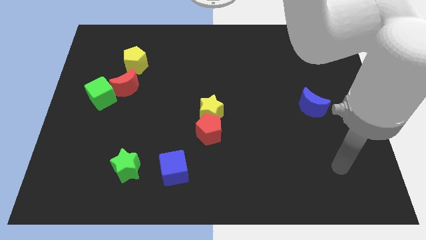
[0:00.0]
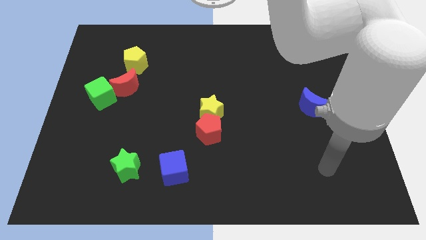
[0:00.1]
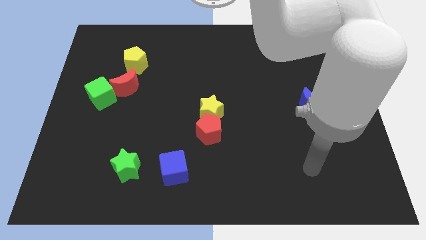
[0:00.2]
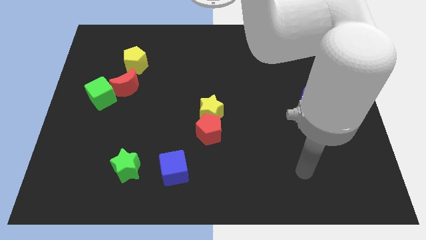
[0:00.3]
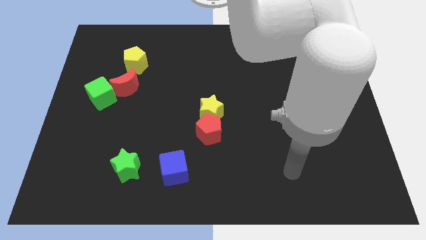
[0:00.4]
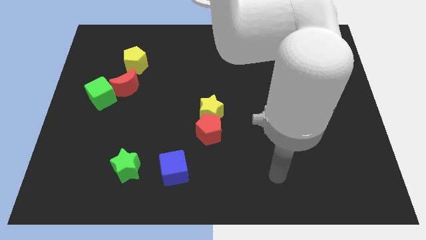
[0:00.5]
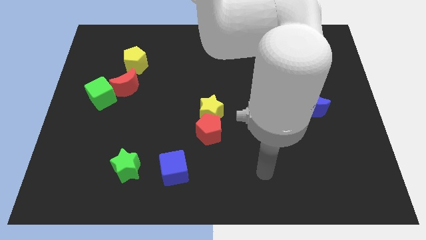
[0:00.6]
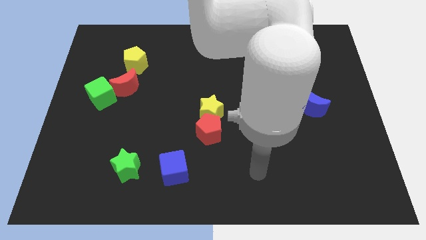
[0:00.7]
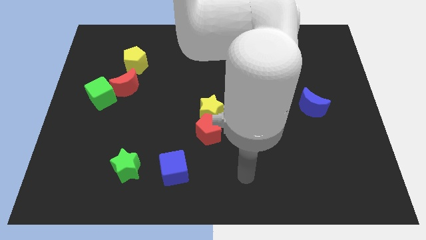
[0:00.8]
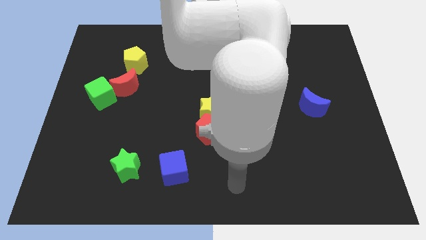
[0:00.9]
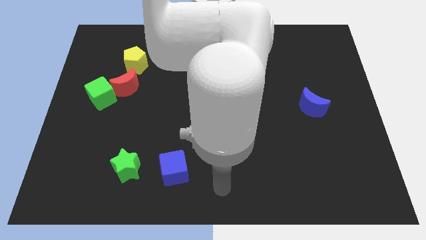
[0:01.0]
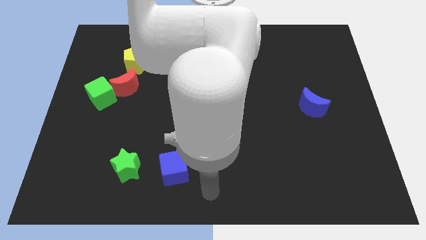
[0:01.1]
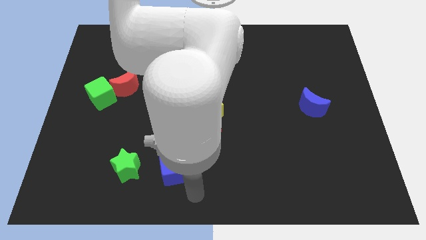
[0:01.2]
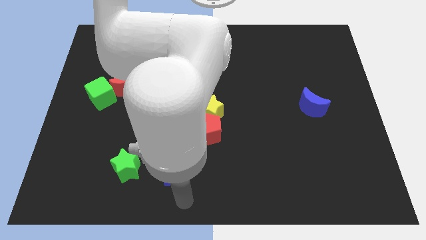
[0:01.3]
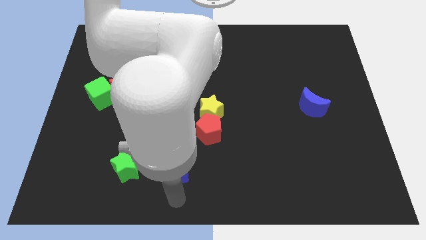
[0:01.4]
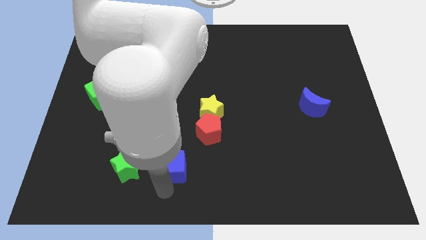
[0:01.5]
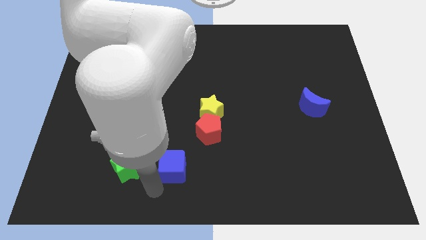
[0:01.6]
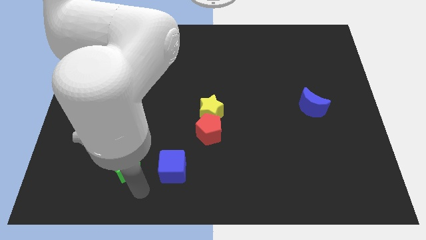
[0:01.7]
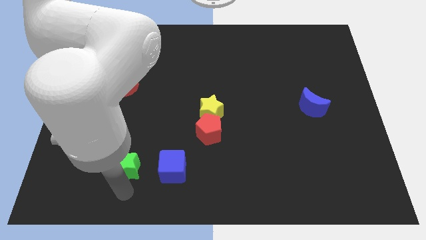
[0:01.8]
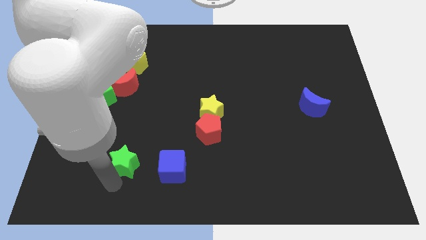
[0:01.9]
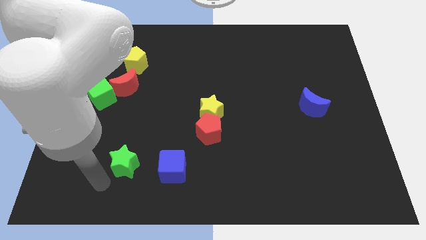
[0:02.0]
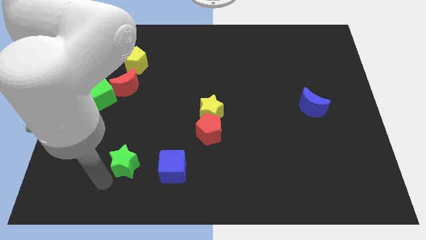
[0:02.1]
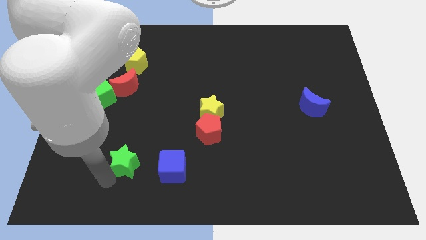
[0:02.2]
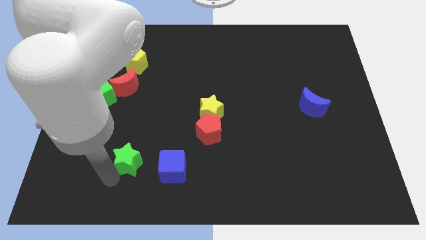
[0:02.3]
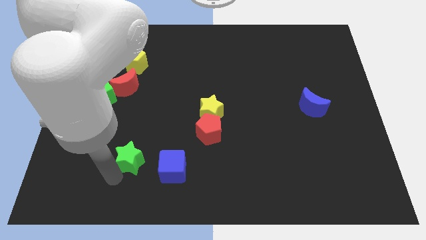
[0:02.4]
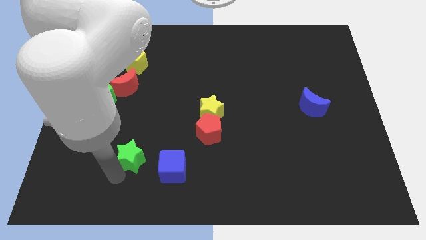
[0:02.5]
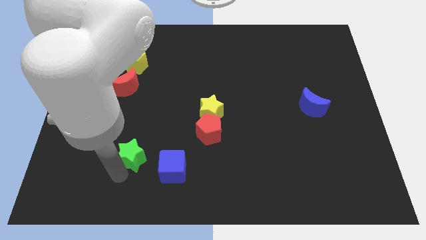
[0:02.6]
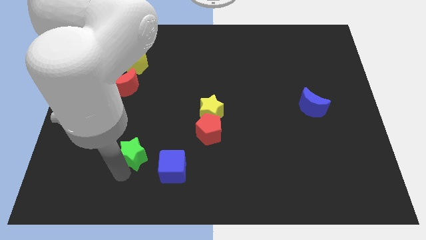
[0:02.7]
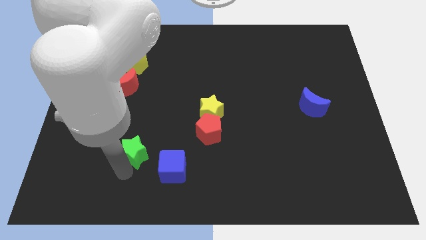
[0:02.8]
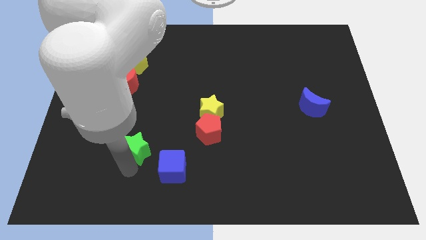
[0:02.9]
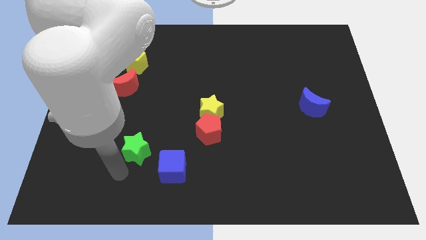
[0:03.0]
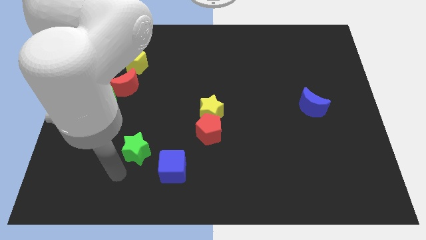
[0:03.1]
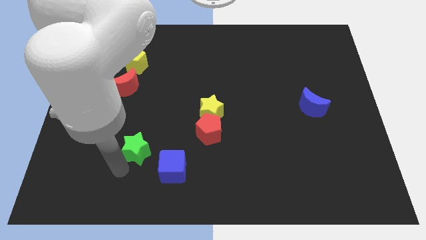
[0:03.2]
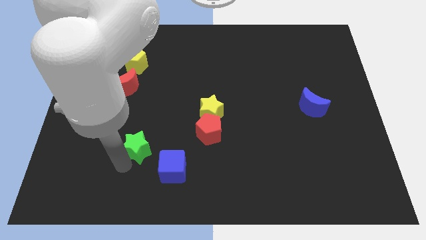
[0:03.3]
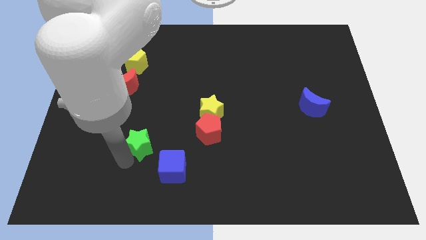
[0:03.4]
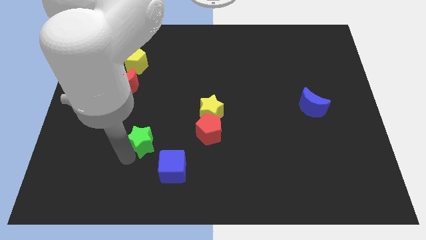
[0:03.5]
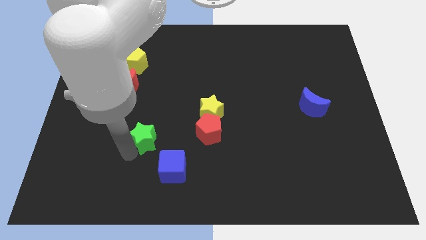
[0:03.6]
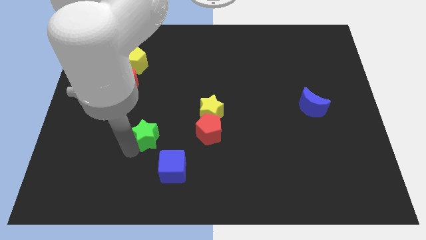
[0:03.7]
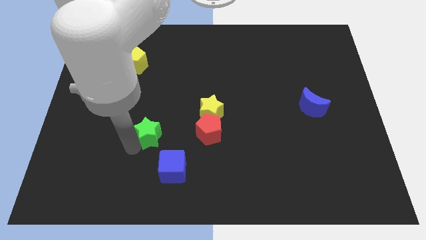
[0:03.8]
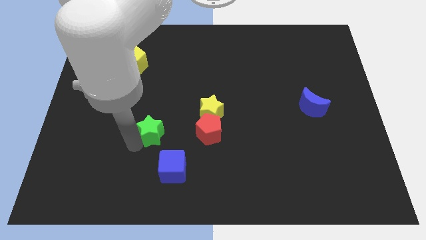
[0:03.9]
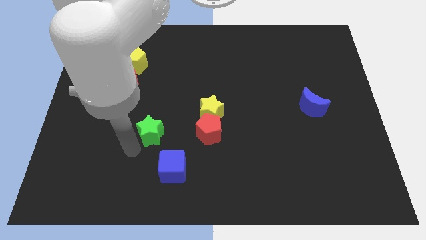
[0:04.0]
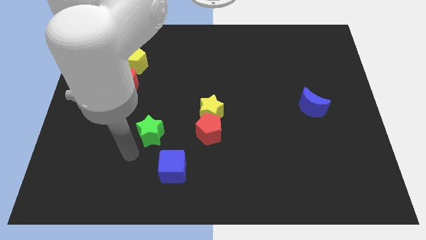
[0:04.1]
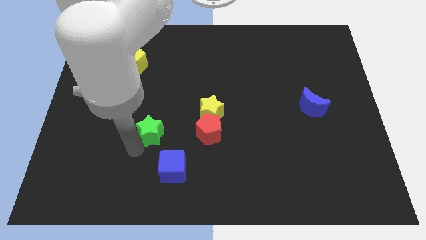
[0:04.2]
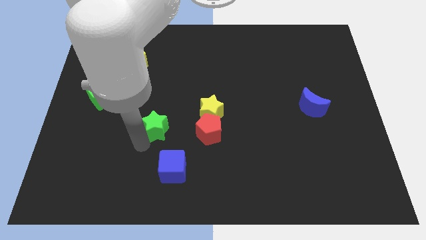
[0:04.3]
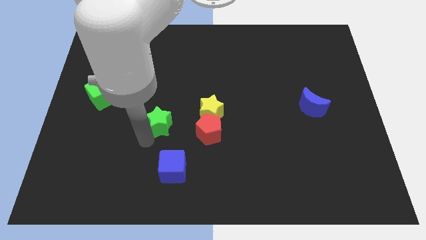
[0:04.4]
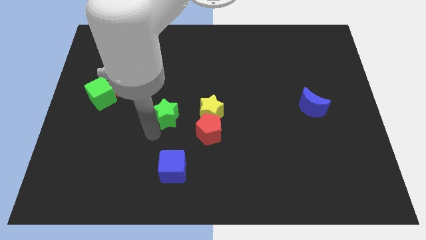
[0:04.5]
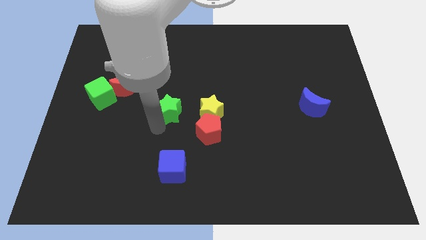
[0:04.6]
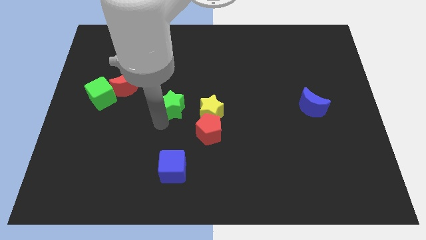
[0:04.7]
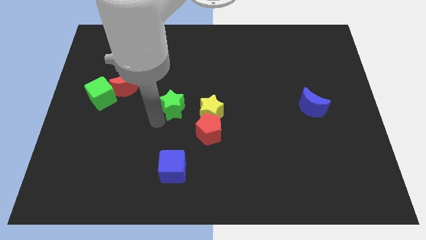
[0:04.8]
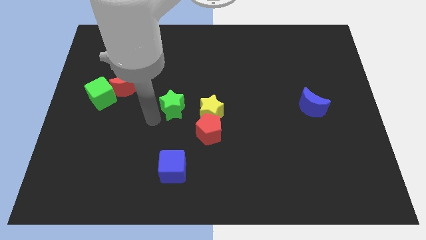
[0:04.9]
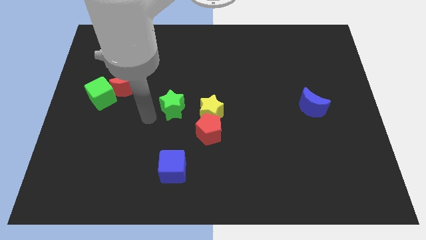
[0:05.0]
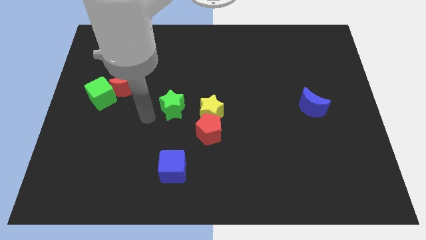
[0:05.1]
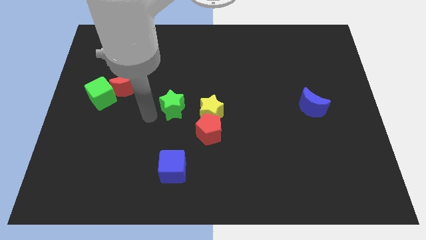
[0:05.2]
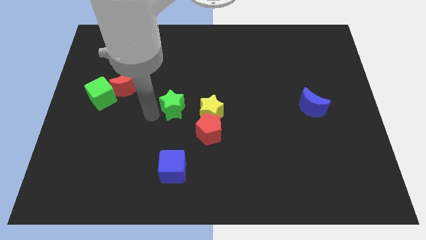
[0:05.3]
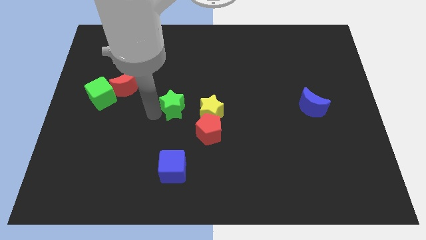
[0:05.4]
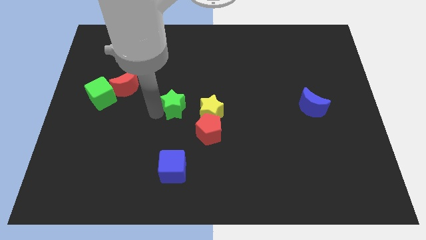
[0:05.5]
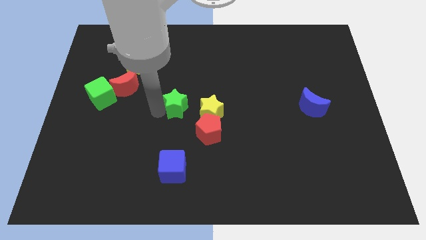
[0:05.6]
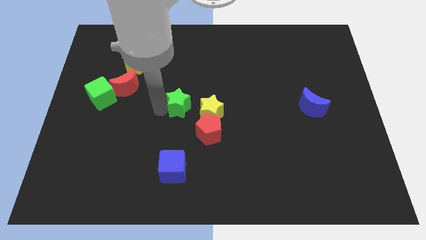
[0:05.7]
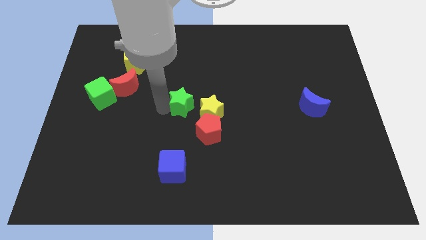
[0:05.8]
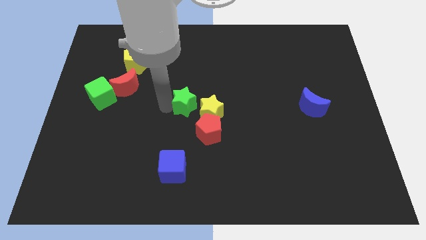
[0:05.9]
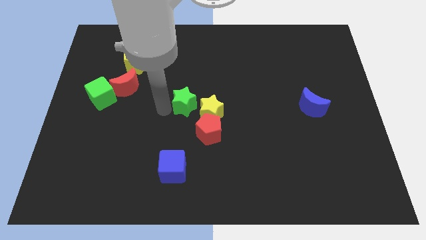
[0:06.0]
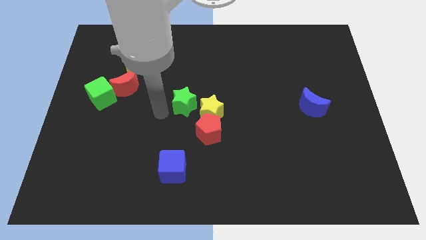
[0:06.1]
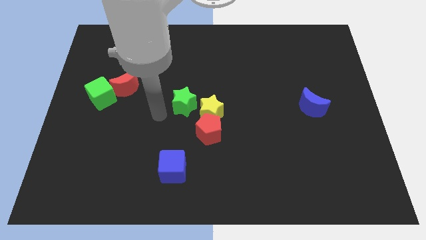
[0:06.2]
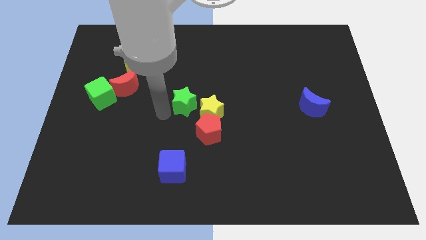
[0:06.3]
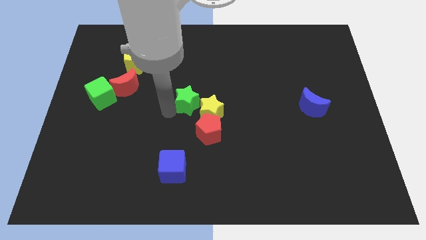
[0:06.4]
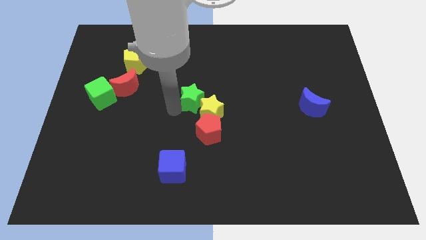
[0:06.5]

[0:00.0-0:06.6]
push the green star up and then to the right

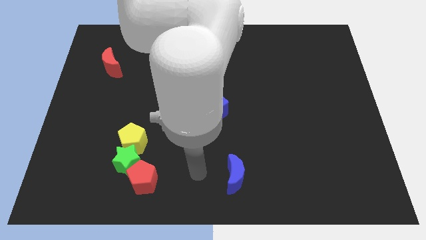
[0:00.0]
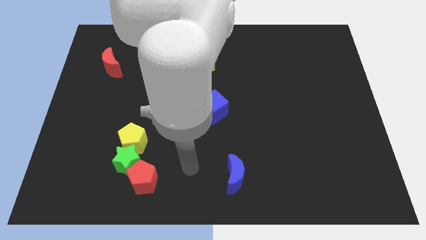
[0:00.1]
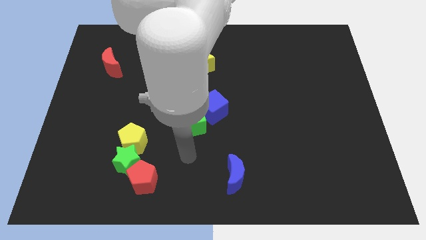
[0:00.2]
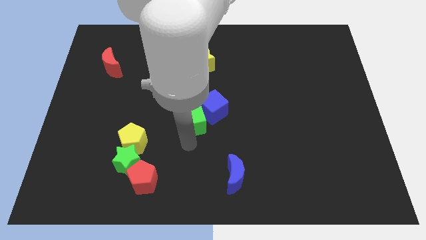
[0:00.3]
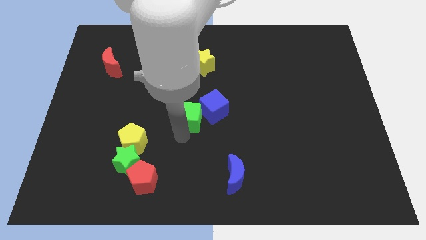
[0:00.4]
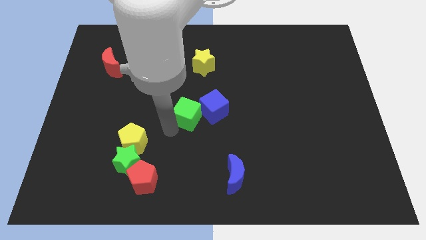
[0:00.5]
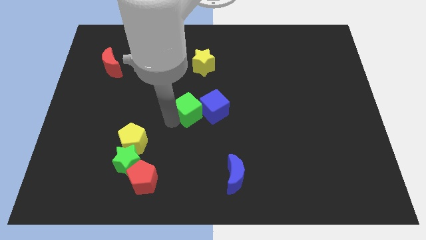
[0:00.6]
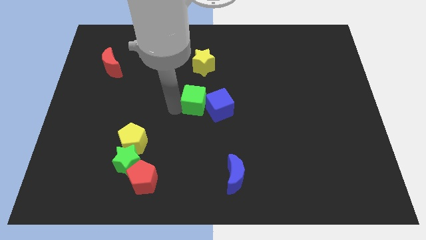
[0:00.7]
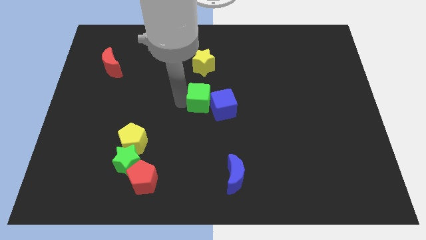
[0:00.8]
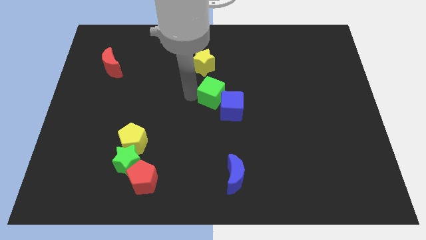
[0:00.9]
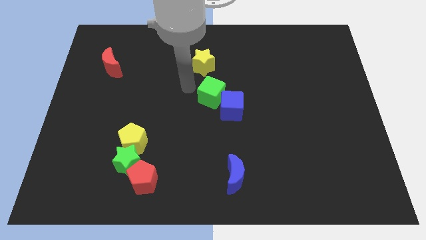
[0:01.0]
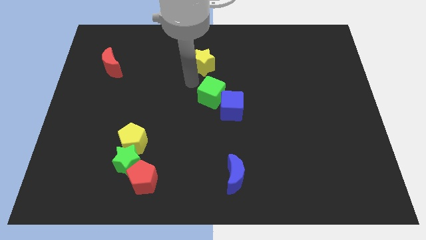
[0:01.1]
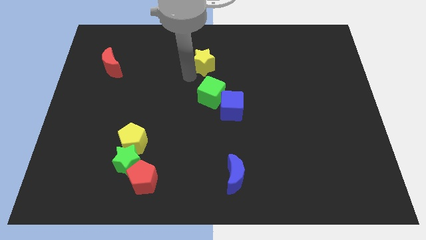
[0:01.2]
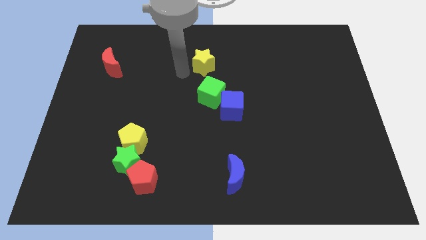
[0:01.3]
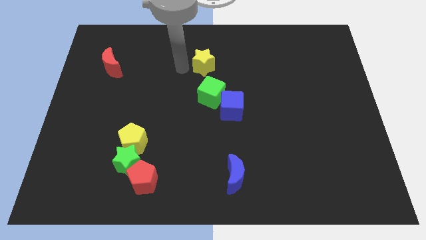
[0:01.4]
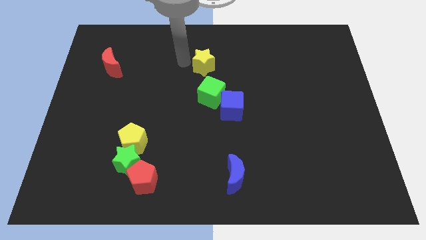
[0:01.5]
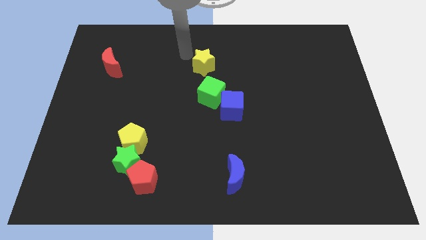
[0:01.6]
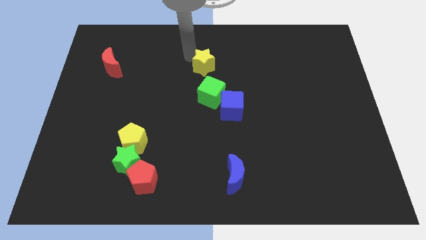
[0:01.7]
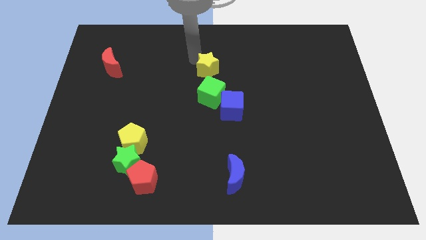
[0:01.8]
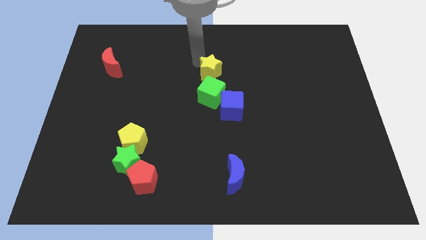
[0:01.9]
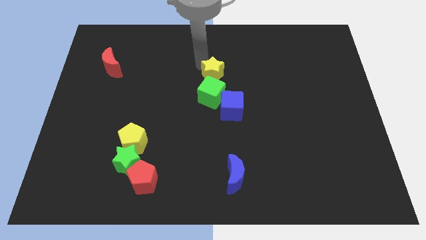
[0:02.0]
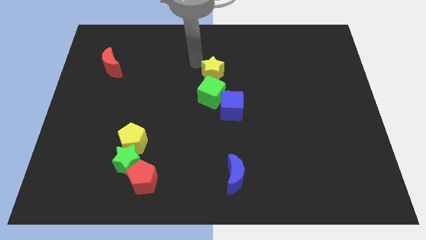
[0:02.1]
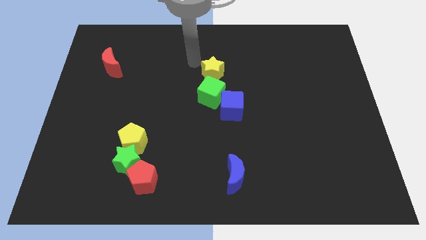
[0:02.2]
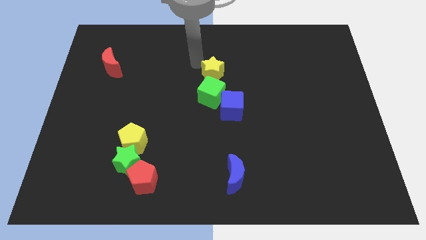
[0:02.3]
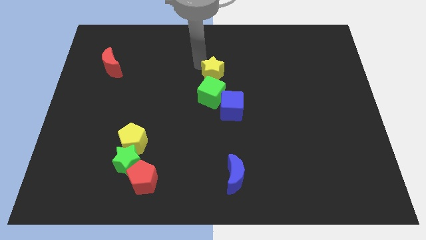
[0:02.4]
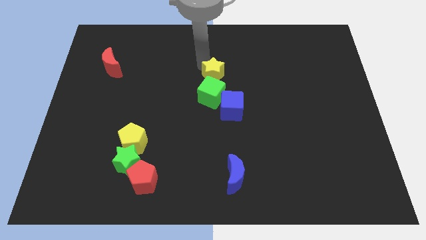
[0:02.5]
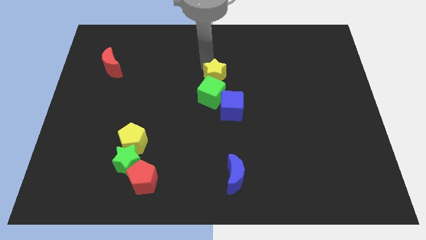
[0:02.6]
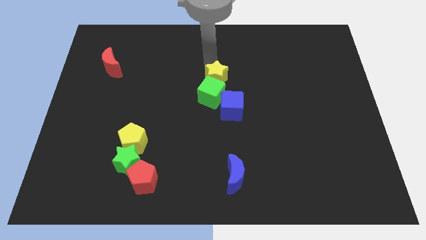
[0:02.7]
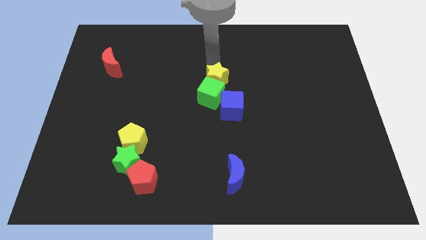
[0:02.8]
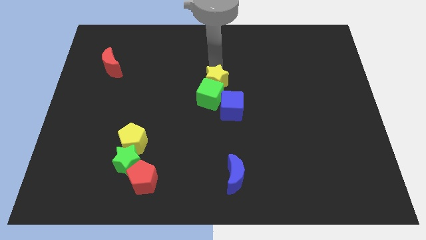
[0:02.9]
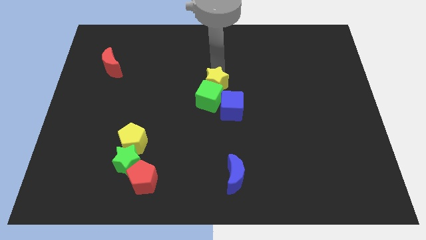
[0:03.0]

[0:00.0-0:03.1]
slightly slide the yellow star diagonally down and right
